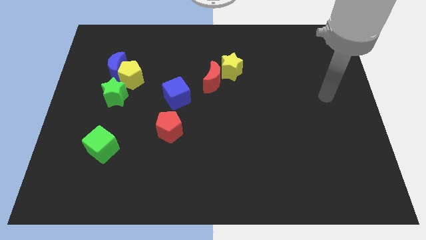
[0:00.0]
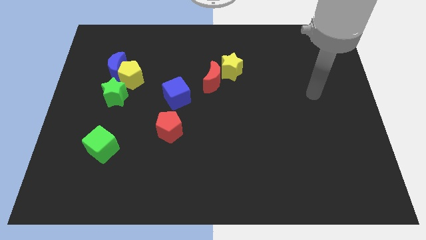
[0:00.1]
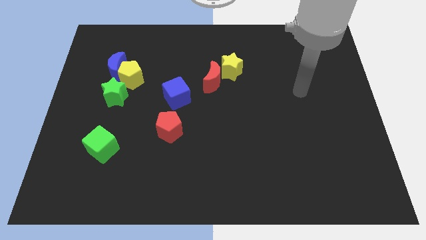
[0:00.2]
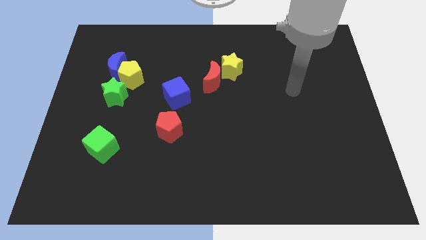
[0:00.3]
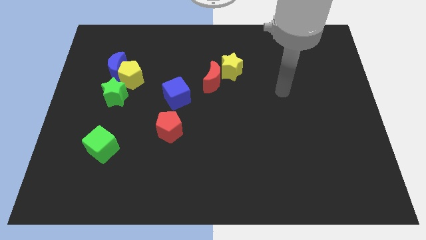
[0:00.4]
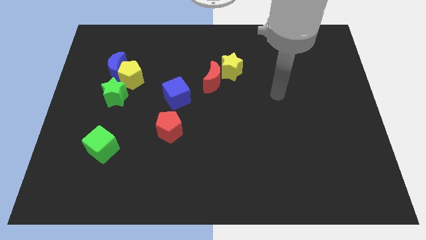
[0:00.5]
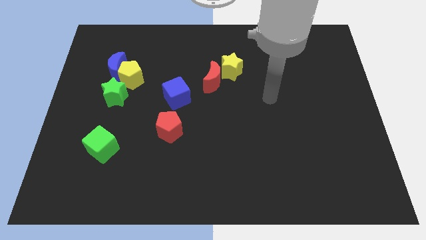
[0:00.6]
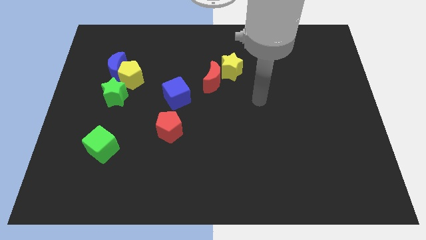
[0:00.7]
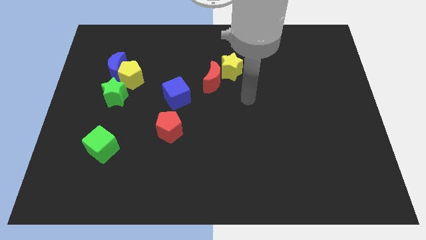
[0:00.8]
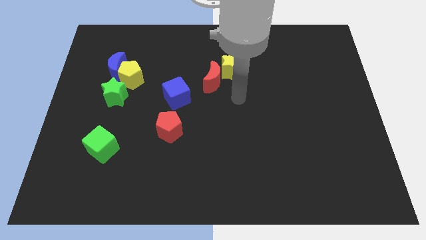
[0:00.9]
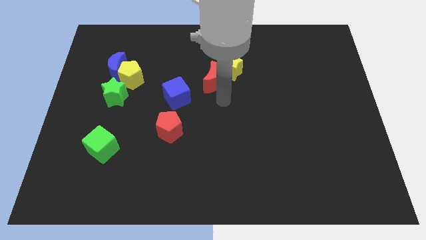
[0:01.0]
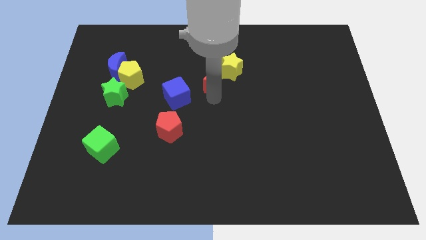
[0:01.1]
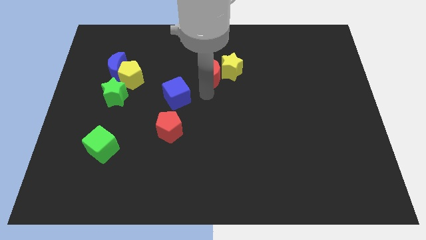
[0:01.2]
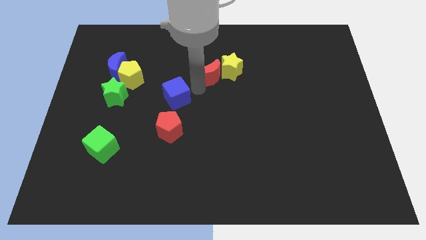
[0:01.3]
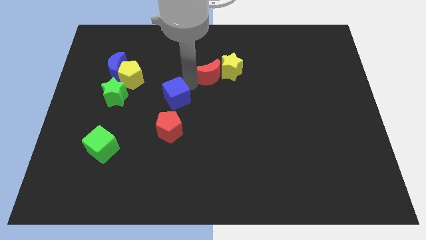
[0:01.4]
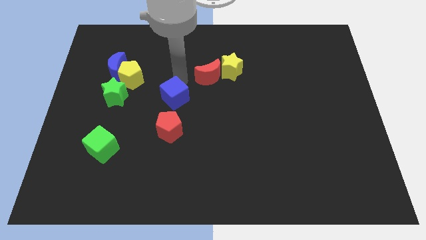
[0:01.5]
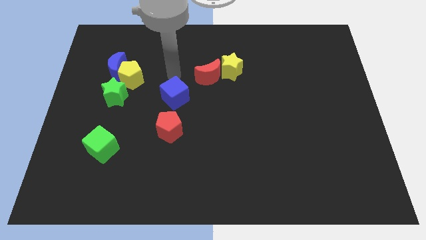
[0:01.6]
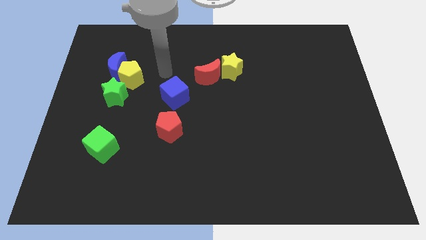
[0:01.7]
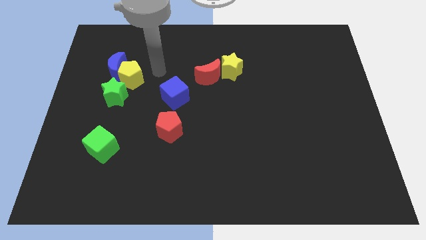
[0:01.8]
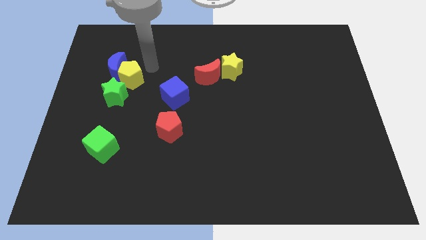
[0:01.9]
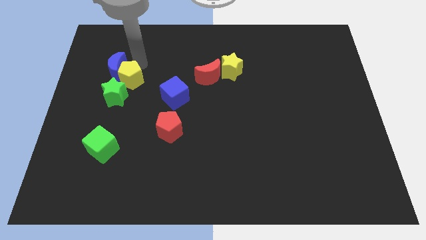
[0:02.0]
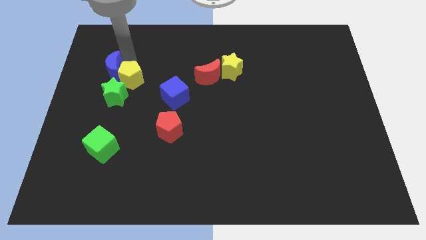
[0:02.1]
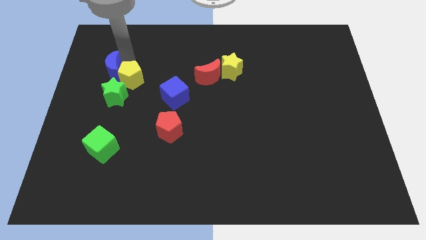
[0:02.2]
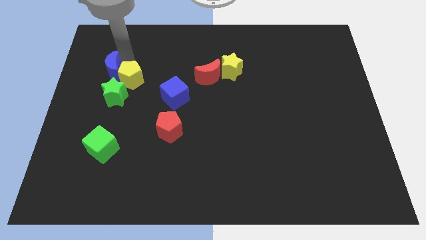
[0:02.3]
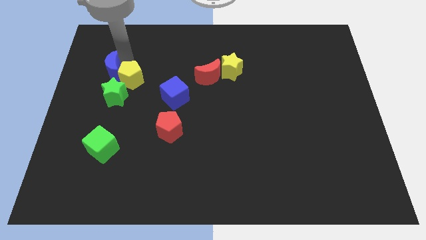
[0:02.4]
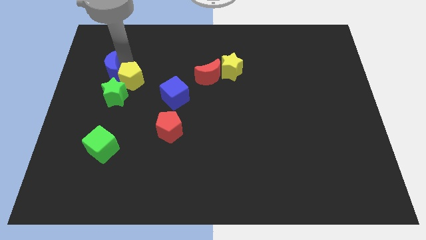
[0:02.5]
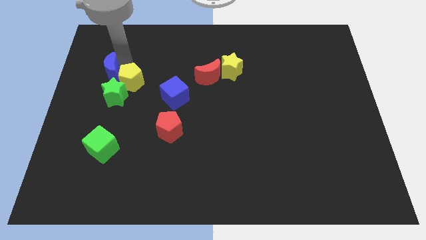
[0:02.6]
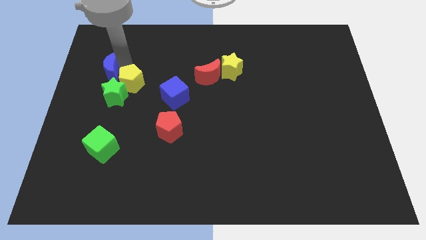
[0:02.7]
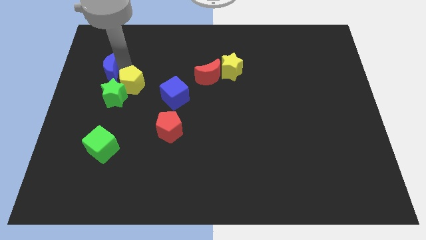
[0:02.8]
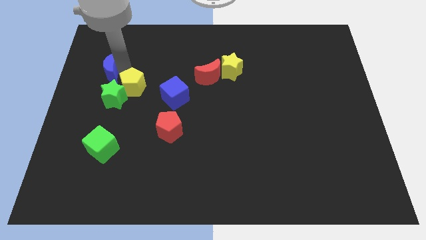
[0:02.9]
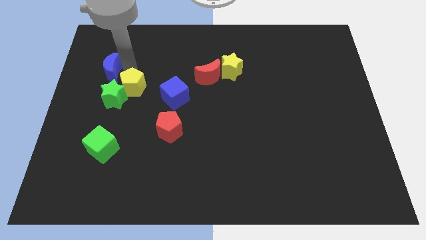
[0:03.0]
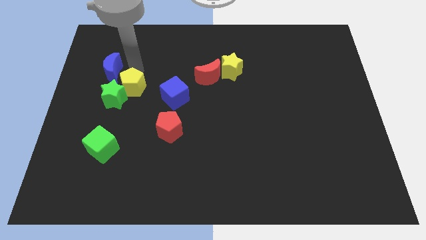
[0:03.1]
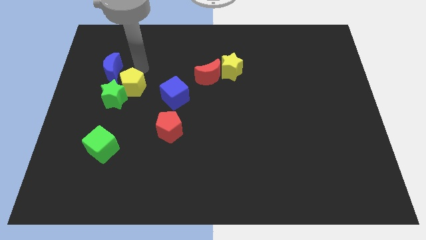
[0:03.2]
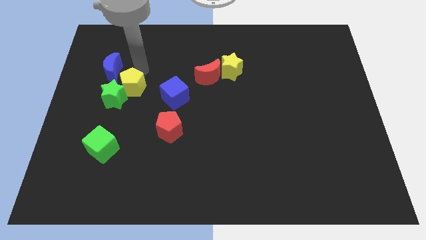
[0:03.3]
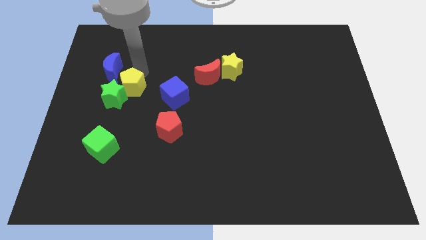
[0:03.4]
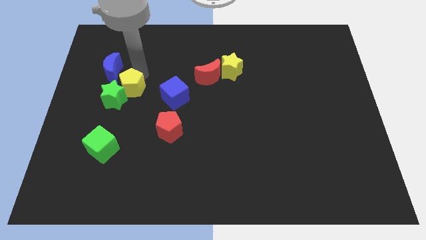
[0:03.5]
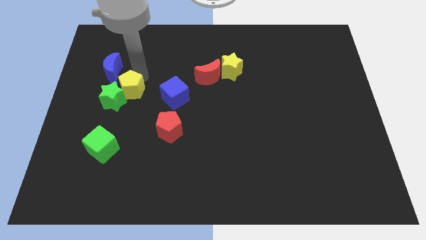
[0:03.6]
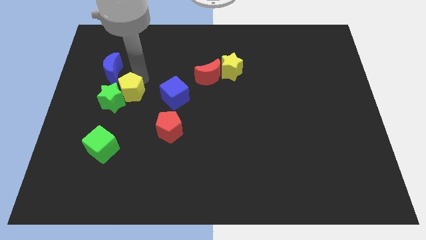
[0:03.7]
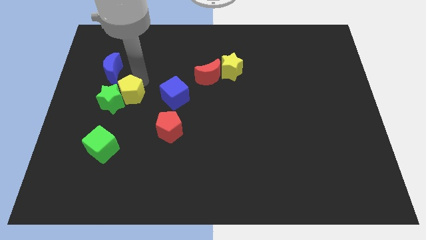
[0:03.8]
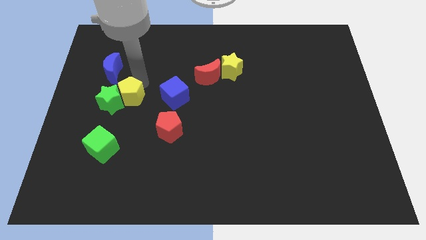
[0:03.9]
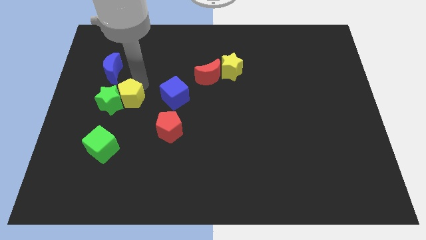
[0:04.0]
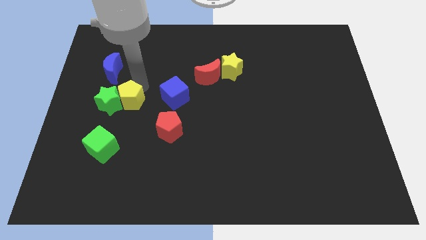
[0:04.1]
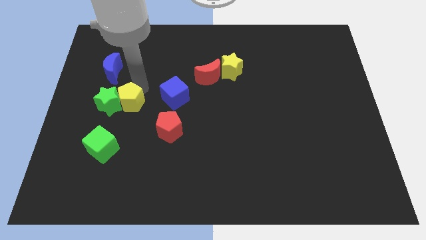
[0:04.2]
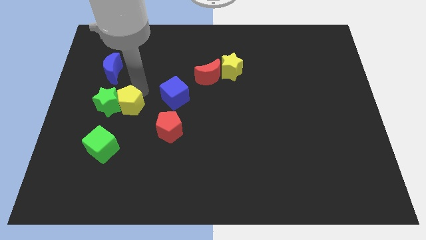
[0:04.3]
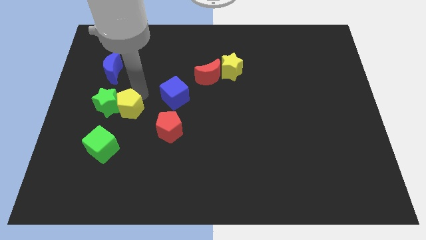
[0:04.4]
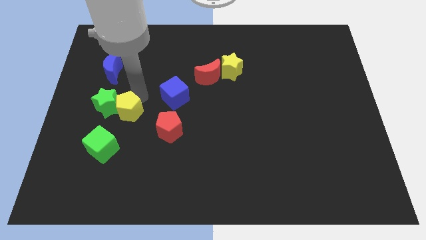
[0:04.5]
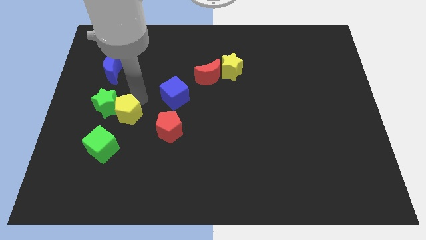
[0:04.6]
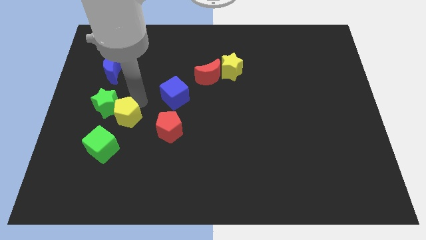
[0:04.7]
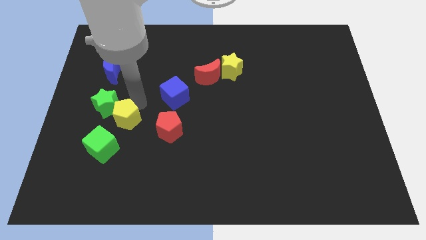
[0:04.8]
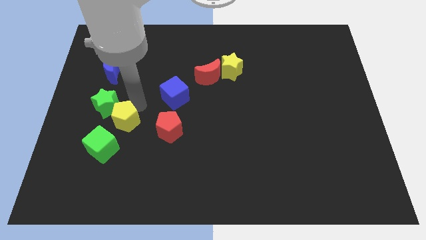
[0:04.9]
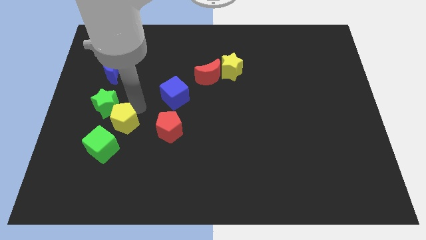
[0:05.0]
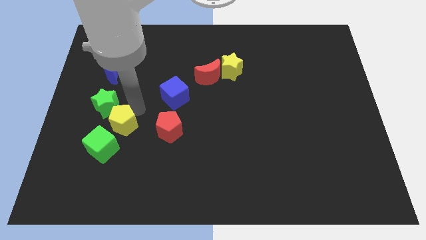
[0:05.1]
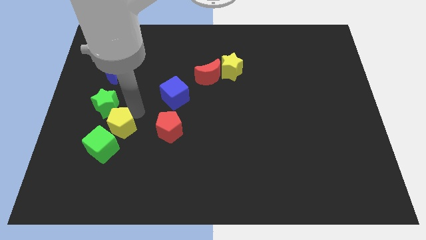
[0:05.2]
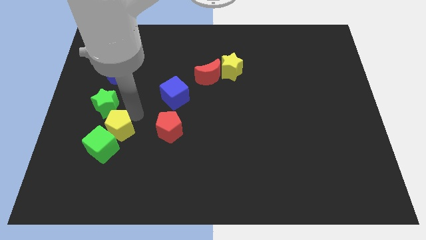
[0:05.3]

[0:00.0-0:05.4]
move the yellow pentagon towards the green cube

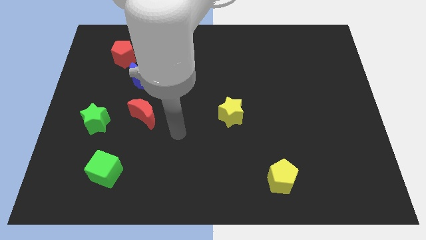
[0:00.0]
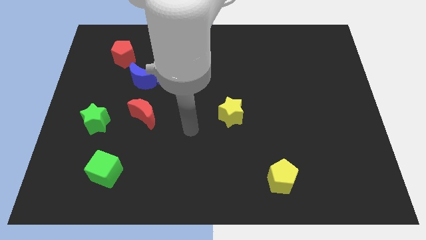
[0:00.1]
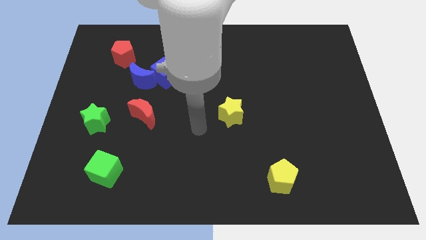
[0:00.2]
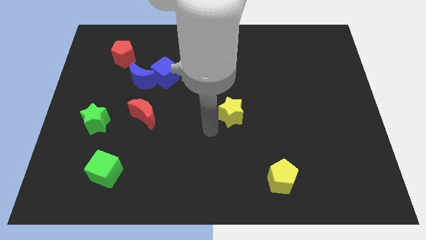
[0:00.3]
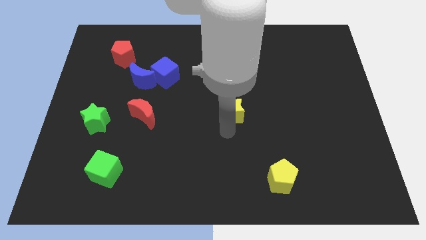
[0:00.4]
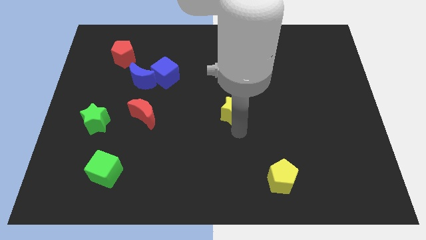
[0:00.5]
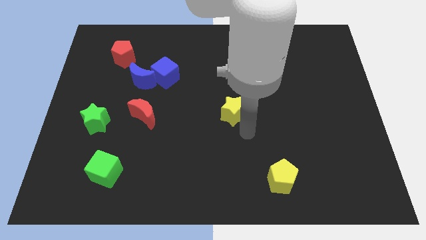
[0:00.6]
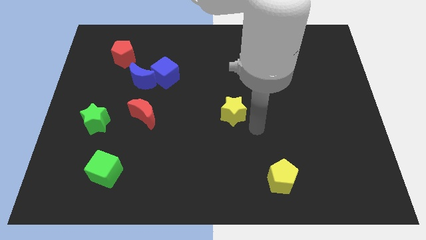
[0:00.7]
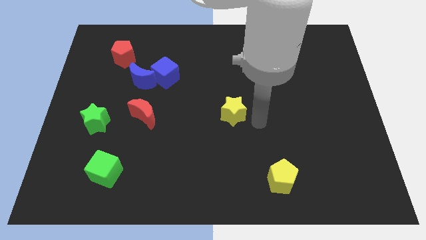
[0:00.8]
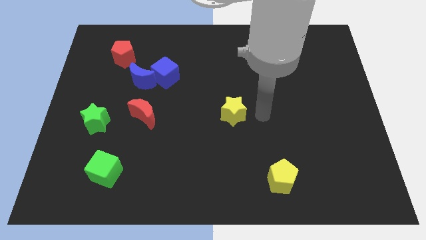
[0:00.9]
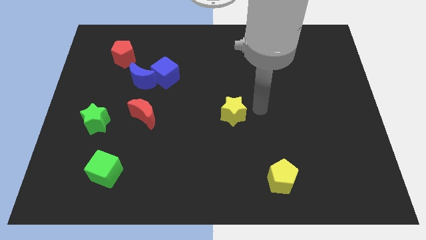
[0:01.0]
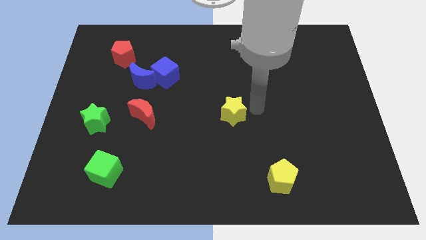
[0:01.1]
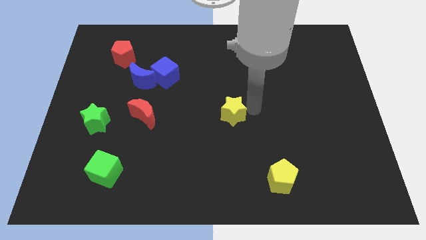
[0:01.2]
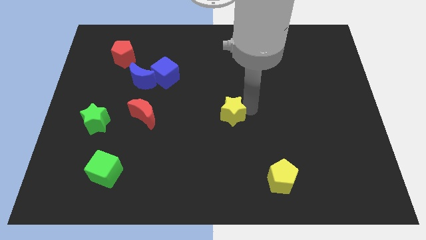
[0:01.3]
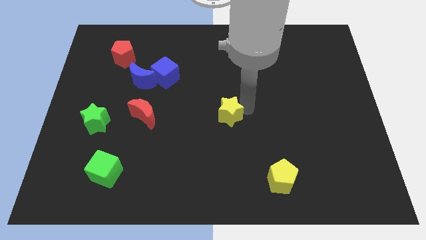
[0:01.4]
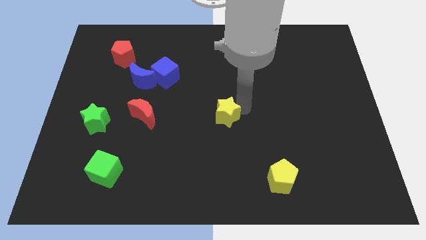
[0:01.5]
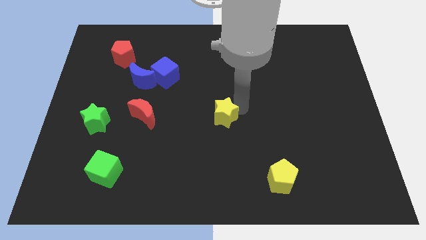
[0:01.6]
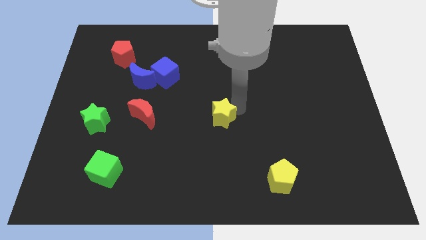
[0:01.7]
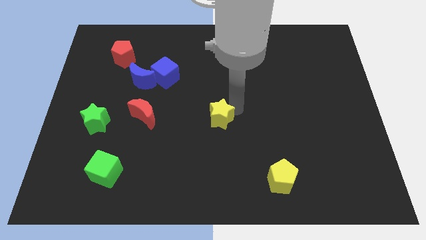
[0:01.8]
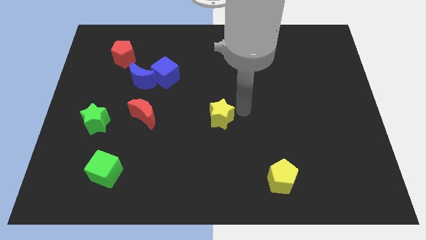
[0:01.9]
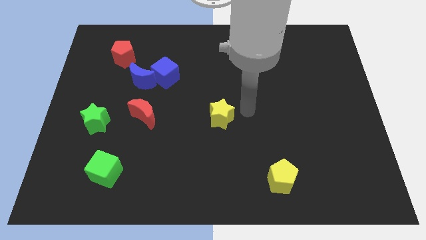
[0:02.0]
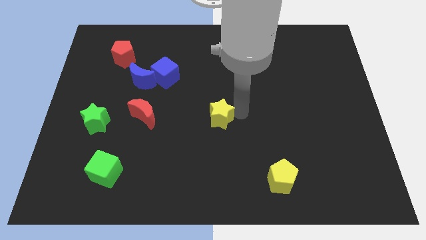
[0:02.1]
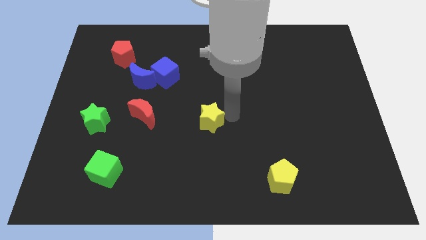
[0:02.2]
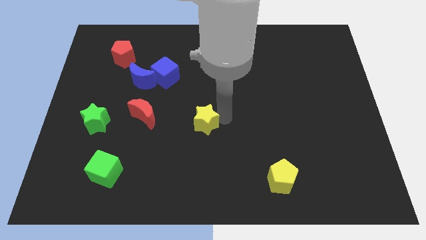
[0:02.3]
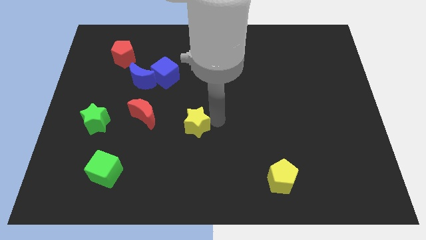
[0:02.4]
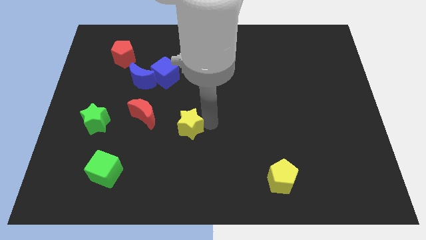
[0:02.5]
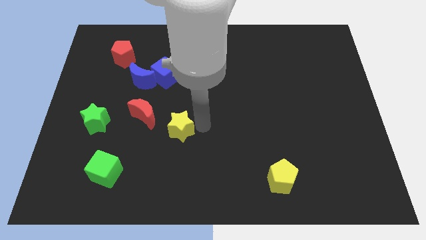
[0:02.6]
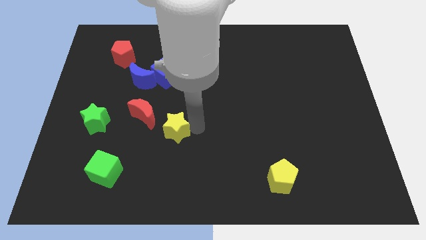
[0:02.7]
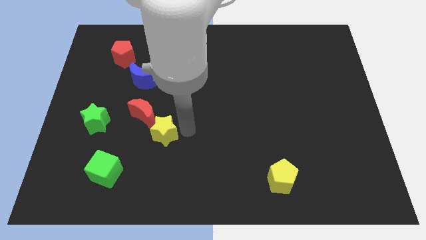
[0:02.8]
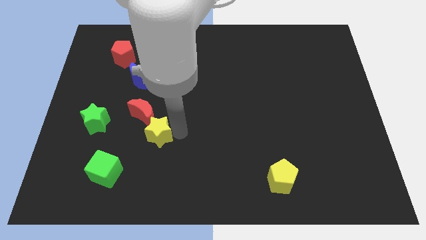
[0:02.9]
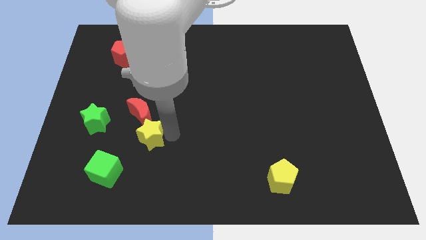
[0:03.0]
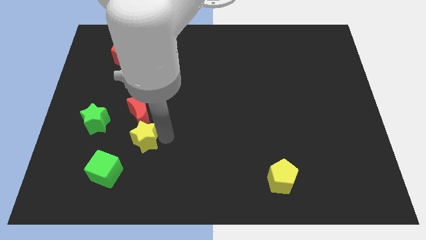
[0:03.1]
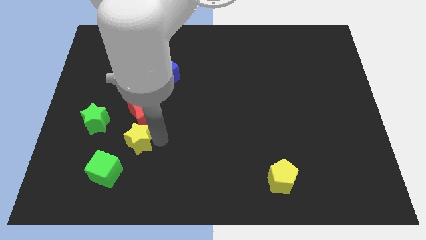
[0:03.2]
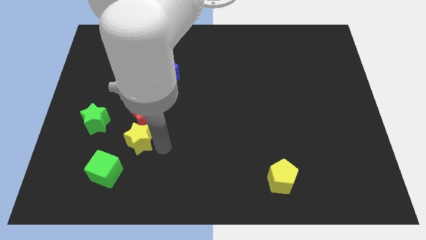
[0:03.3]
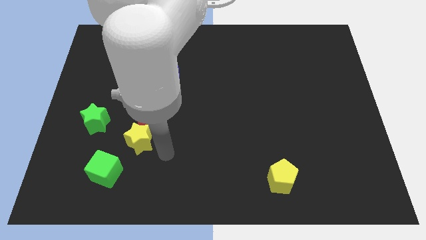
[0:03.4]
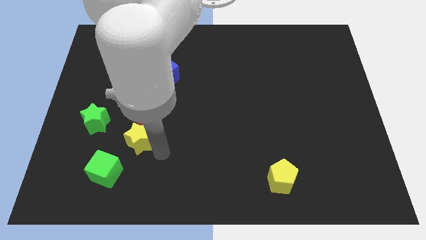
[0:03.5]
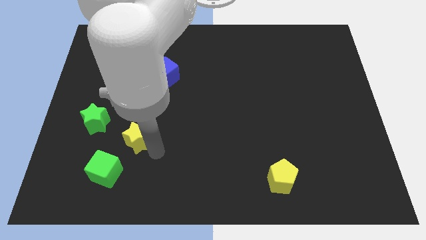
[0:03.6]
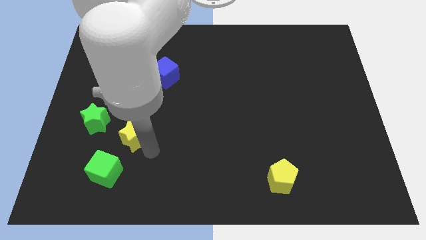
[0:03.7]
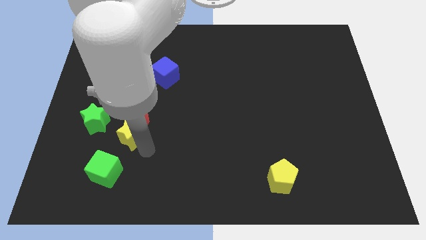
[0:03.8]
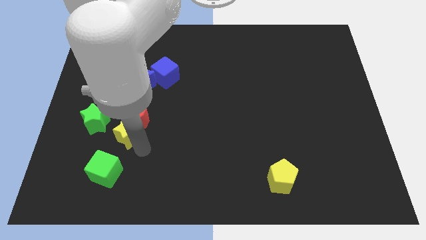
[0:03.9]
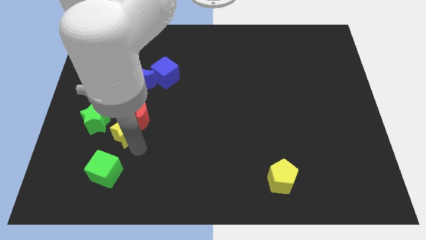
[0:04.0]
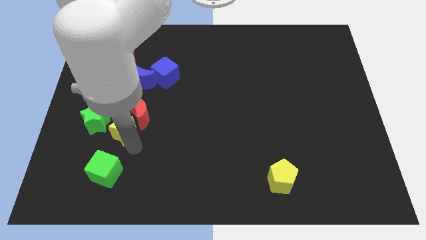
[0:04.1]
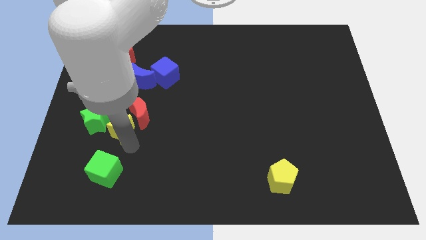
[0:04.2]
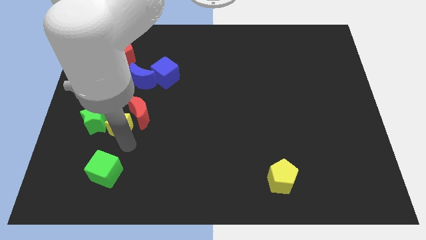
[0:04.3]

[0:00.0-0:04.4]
push the yellow star close to the green star
